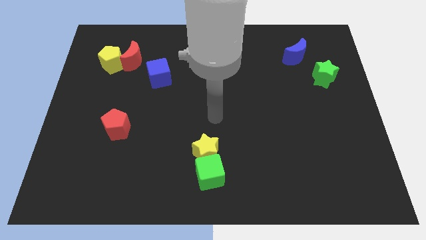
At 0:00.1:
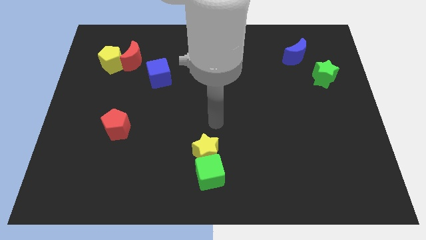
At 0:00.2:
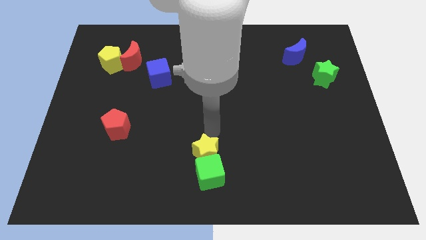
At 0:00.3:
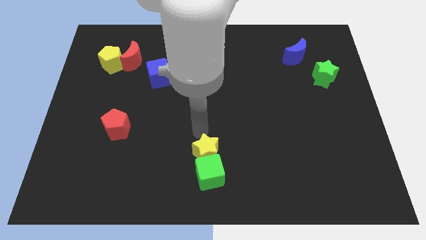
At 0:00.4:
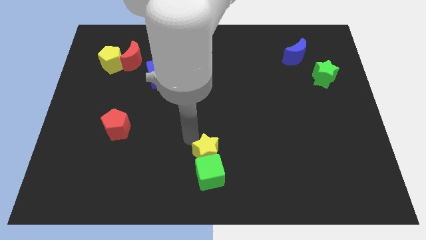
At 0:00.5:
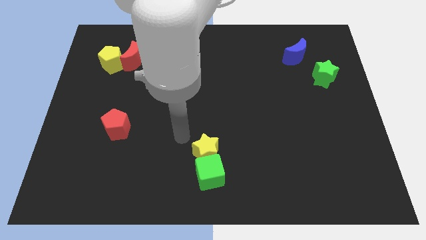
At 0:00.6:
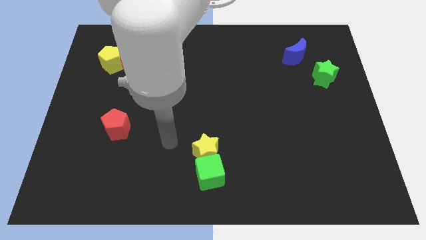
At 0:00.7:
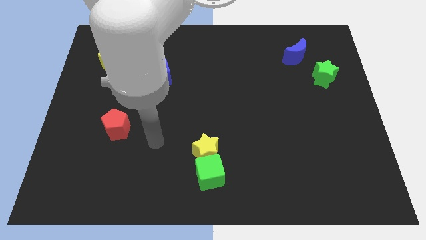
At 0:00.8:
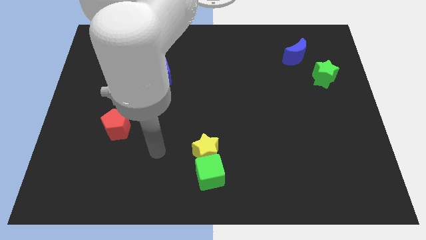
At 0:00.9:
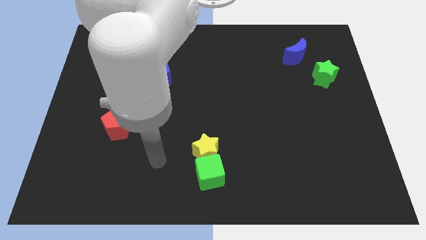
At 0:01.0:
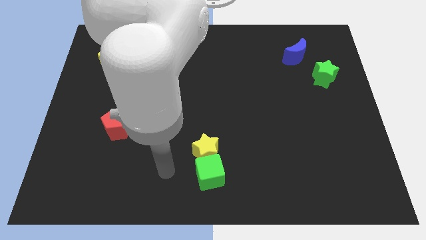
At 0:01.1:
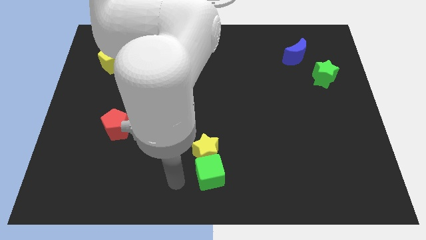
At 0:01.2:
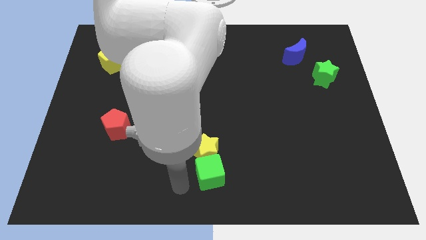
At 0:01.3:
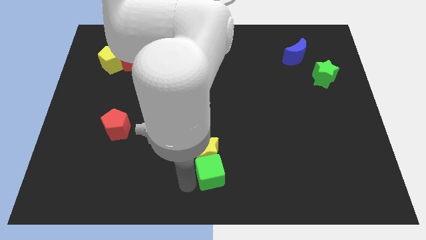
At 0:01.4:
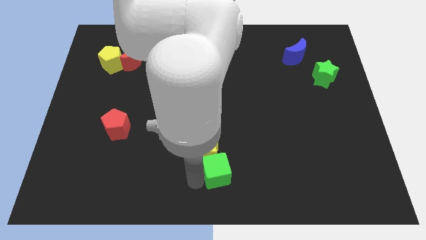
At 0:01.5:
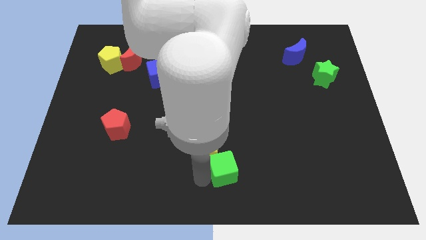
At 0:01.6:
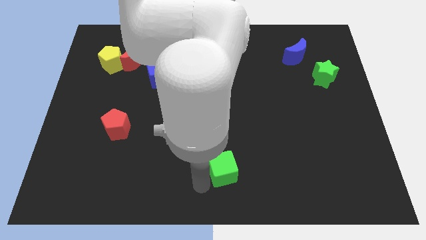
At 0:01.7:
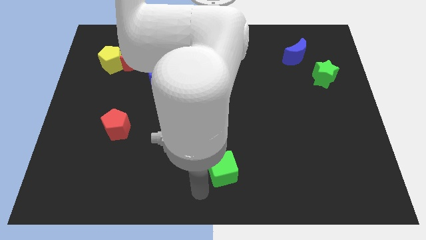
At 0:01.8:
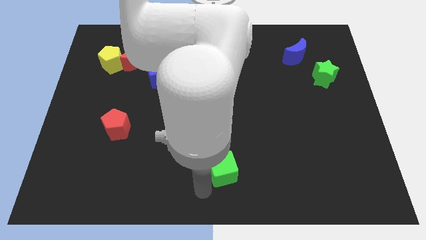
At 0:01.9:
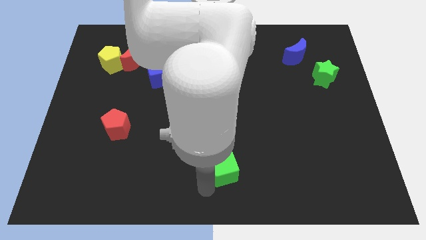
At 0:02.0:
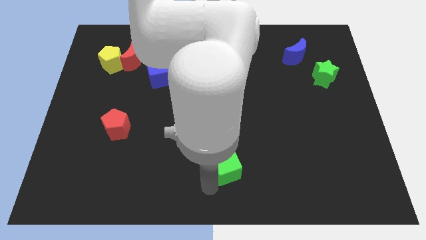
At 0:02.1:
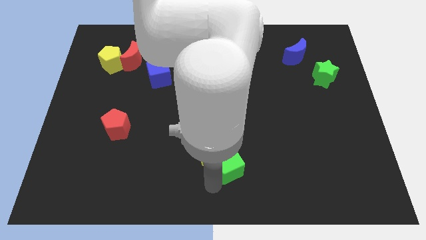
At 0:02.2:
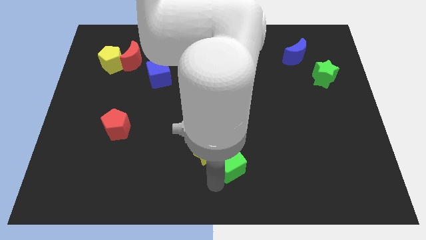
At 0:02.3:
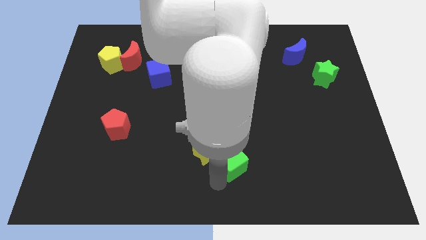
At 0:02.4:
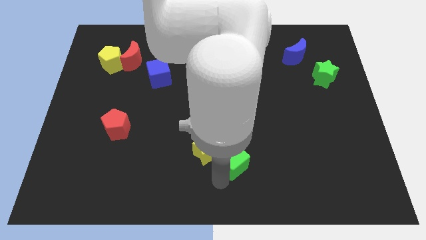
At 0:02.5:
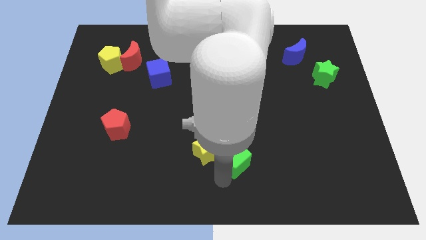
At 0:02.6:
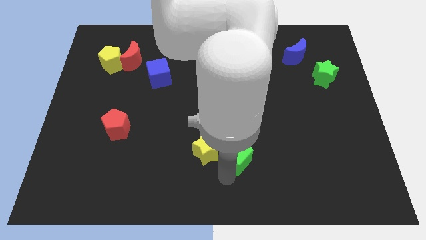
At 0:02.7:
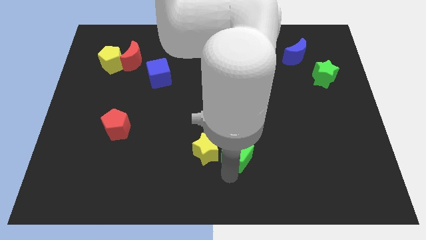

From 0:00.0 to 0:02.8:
push the green cube a little bit up and then right

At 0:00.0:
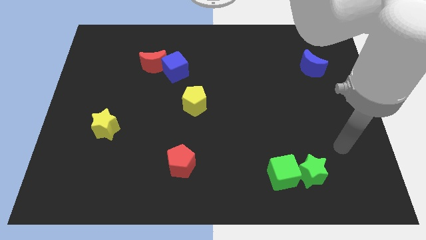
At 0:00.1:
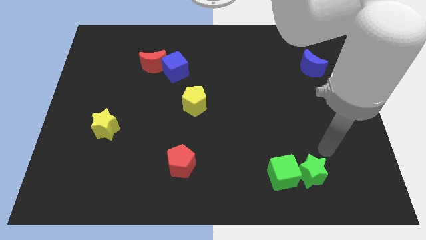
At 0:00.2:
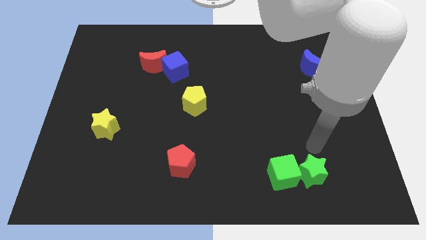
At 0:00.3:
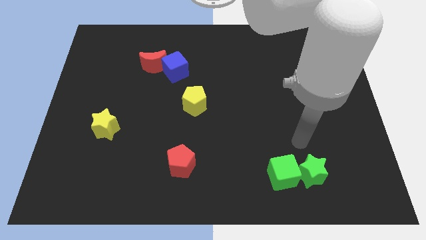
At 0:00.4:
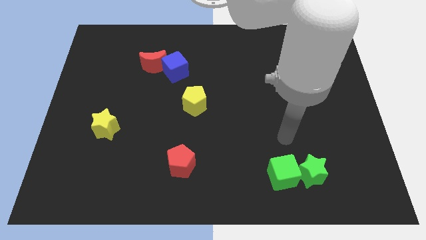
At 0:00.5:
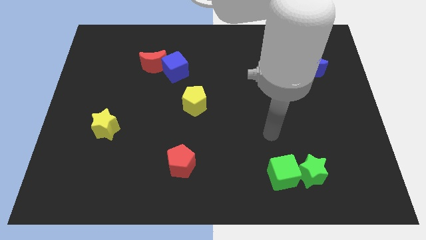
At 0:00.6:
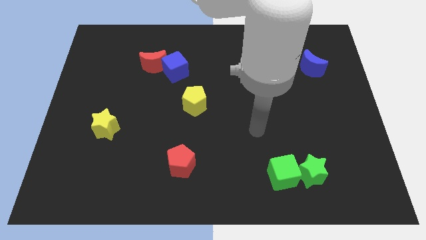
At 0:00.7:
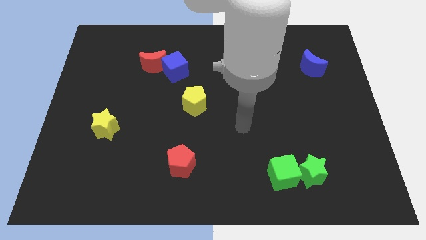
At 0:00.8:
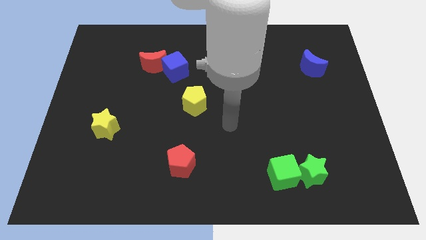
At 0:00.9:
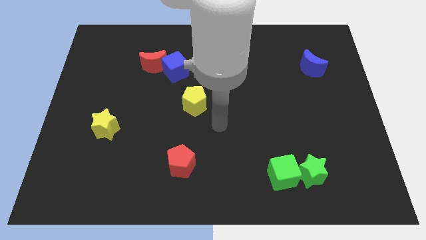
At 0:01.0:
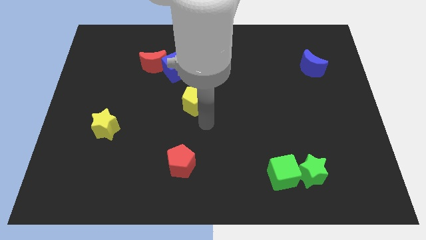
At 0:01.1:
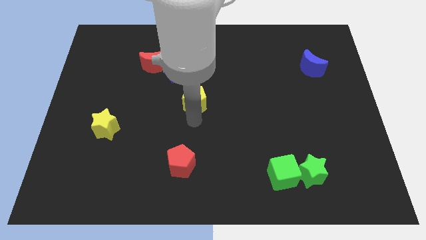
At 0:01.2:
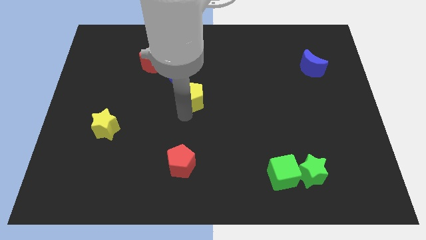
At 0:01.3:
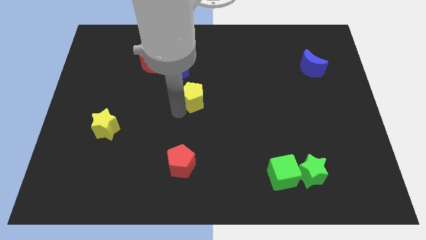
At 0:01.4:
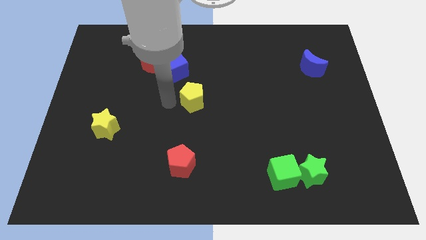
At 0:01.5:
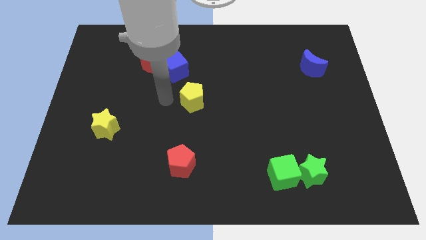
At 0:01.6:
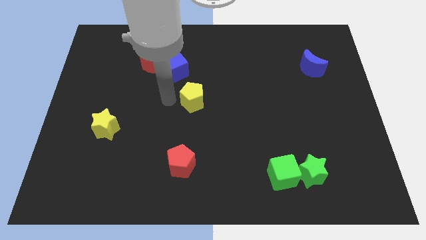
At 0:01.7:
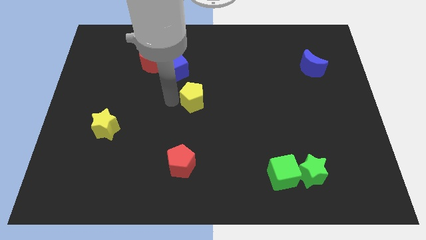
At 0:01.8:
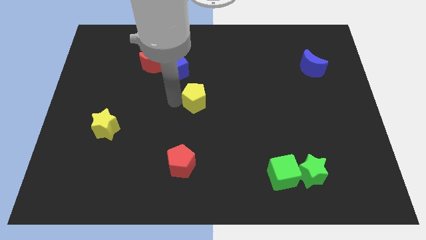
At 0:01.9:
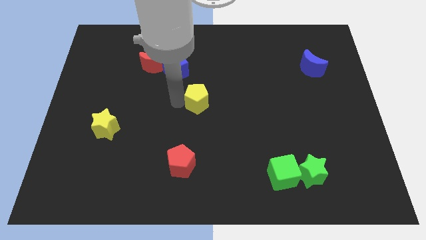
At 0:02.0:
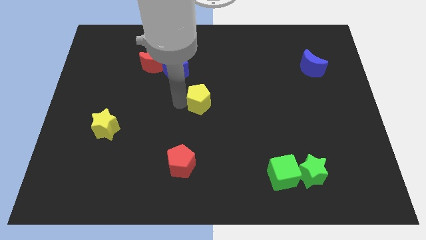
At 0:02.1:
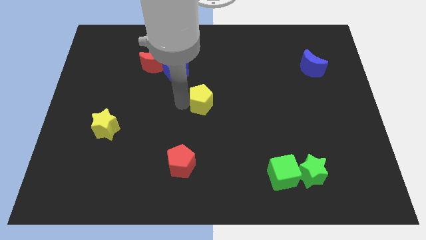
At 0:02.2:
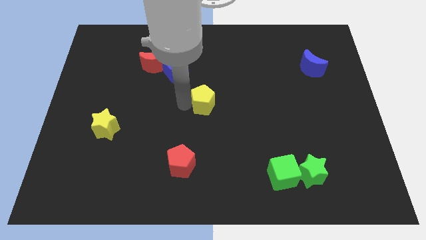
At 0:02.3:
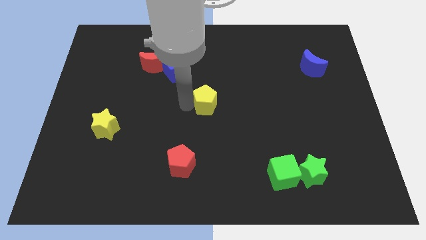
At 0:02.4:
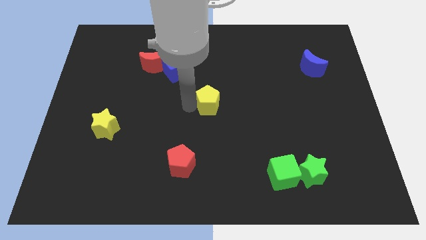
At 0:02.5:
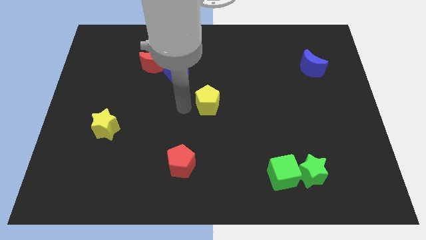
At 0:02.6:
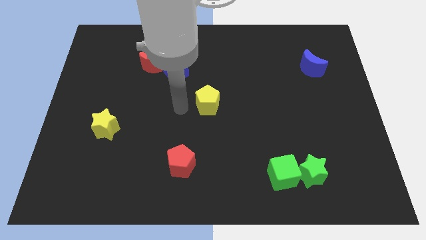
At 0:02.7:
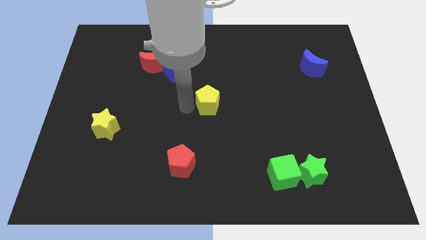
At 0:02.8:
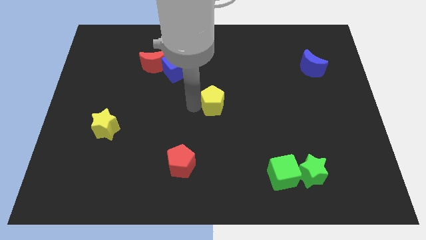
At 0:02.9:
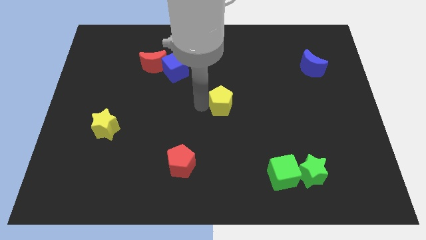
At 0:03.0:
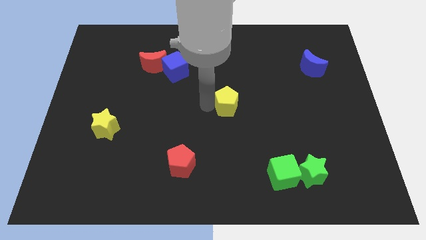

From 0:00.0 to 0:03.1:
move the yellow pentagon to the right a little

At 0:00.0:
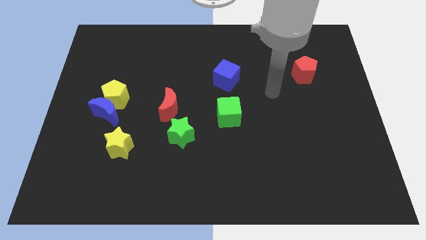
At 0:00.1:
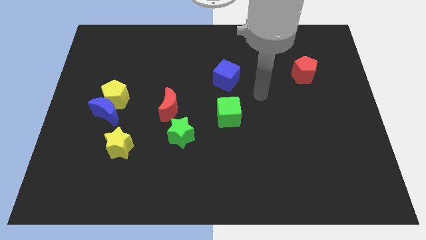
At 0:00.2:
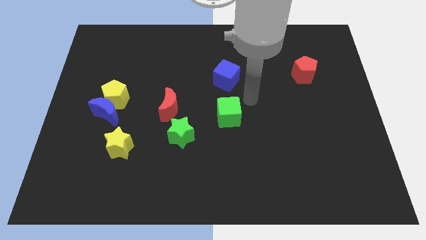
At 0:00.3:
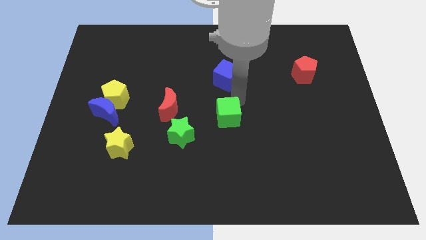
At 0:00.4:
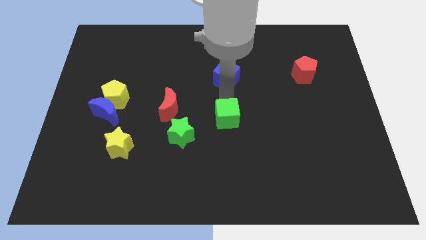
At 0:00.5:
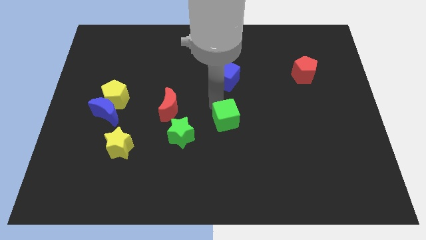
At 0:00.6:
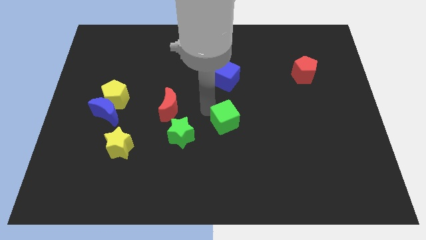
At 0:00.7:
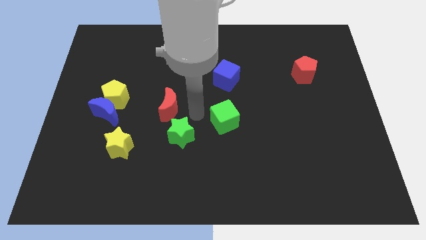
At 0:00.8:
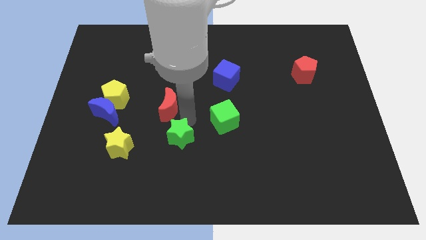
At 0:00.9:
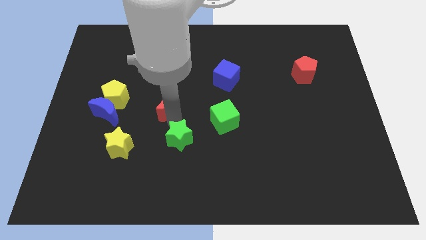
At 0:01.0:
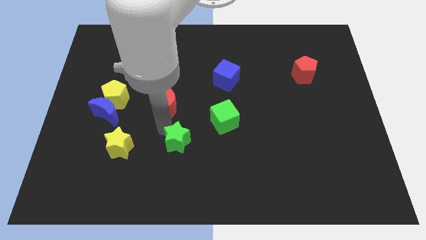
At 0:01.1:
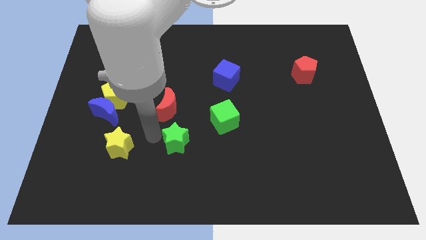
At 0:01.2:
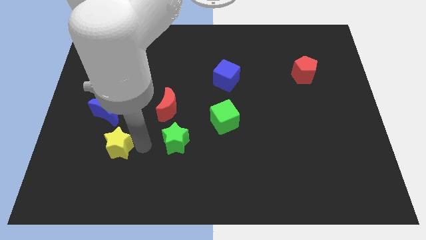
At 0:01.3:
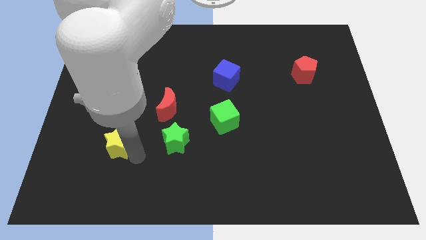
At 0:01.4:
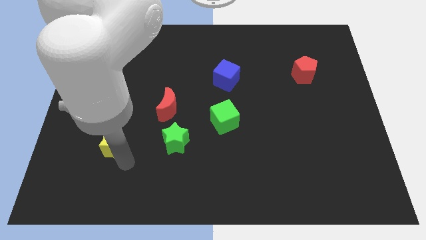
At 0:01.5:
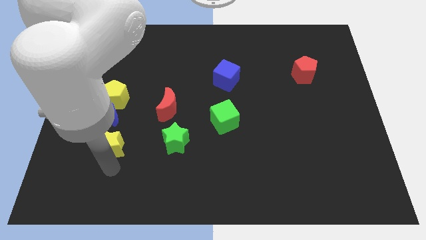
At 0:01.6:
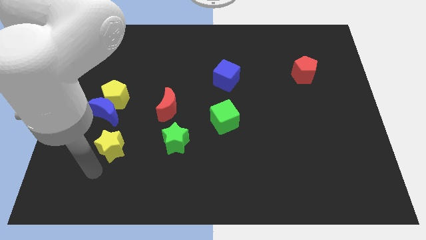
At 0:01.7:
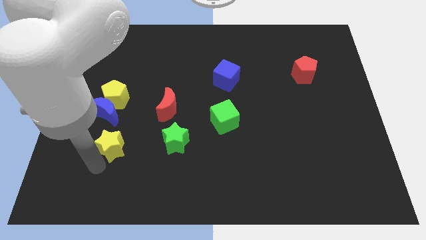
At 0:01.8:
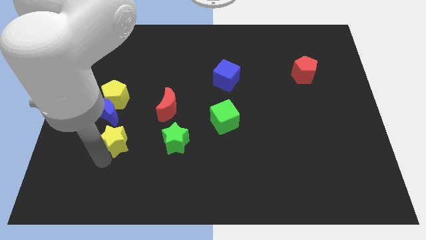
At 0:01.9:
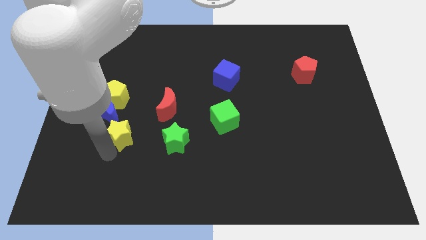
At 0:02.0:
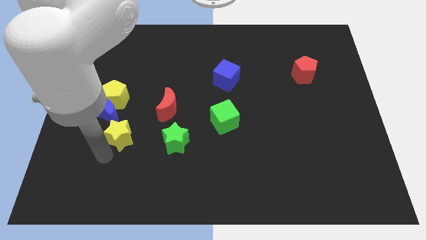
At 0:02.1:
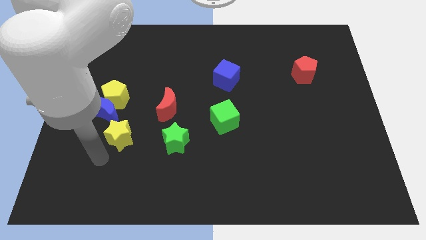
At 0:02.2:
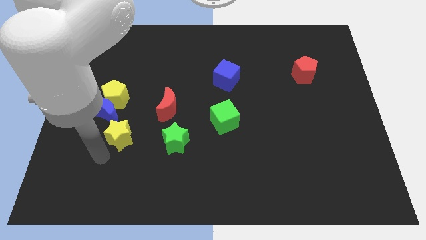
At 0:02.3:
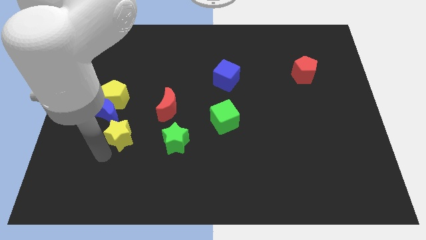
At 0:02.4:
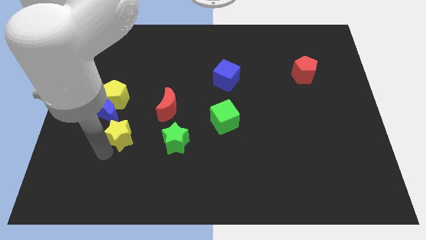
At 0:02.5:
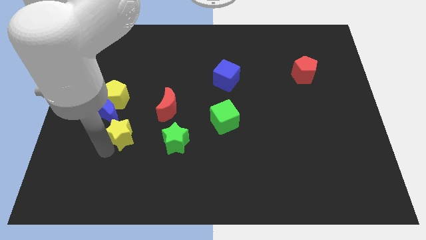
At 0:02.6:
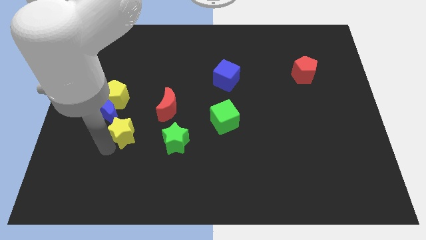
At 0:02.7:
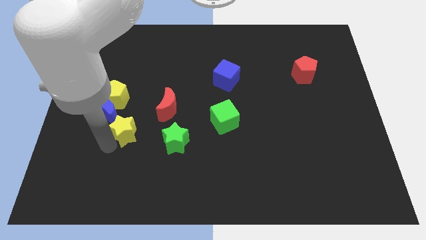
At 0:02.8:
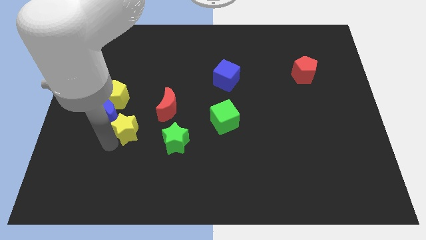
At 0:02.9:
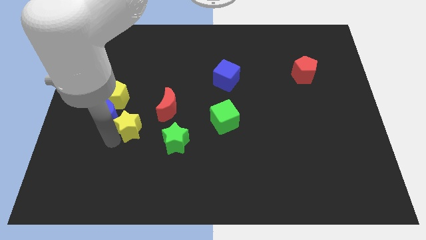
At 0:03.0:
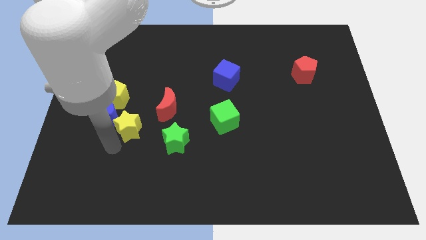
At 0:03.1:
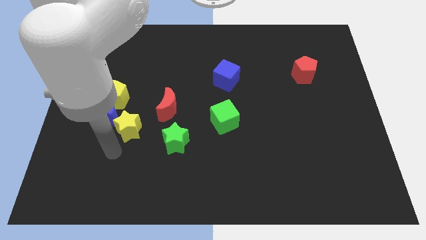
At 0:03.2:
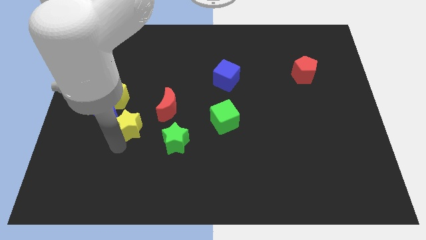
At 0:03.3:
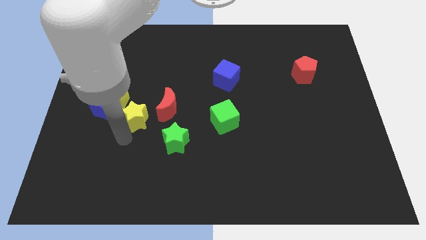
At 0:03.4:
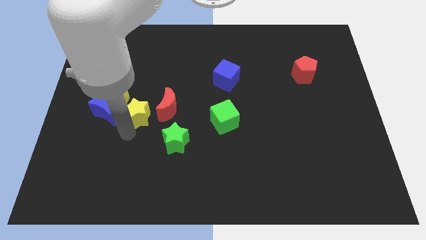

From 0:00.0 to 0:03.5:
slide the yellow star upwards and then right slightly
